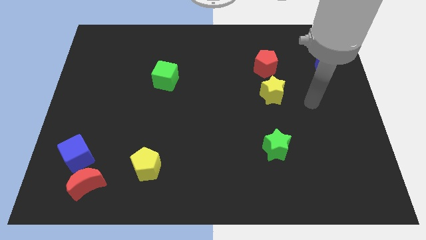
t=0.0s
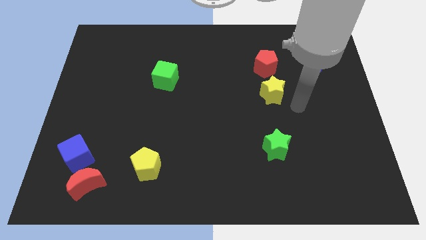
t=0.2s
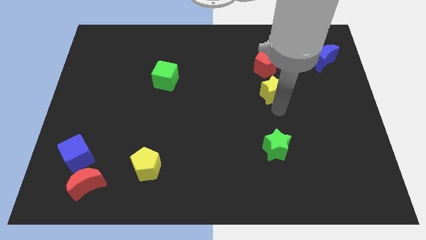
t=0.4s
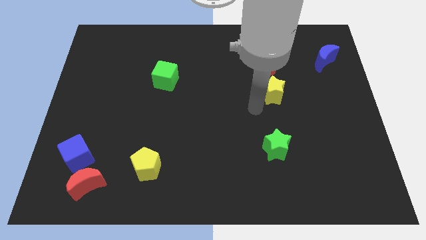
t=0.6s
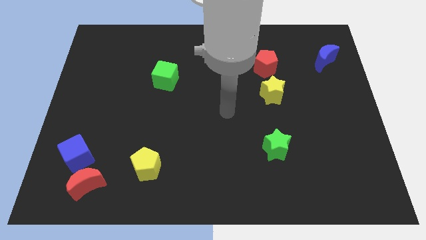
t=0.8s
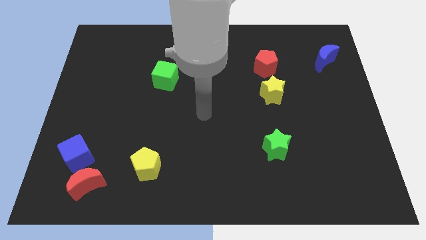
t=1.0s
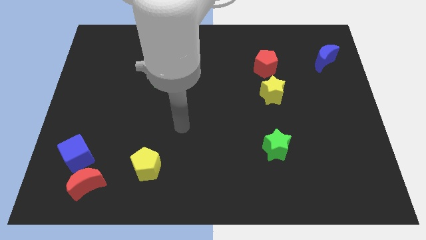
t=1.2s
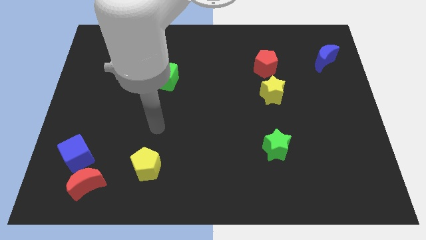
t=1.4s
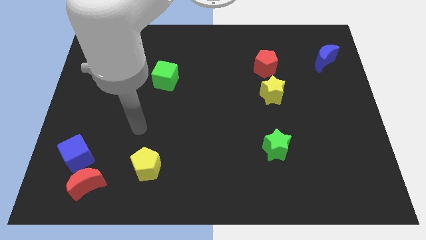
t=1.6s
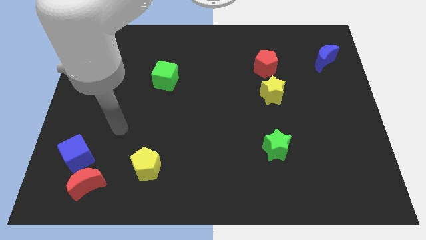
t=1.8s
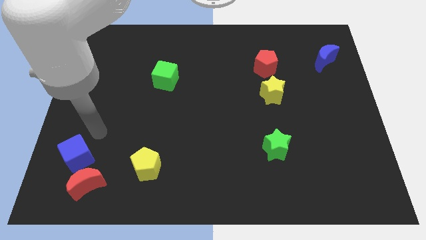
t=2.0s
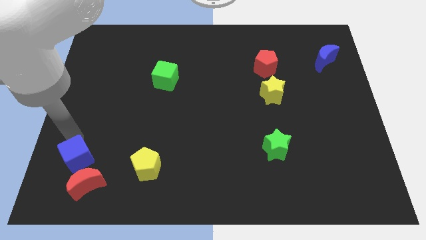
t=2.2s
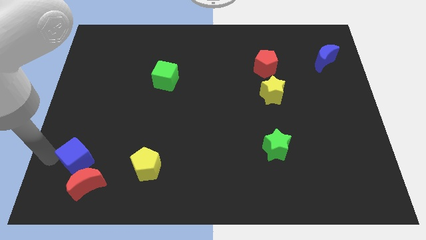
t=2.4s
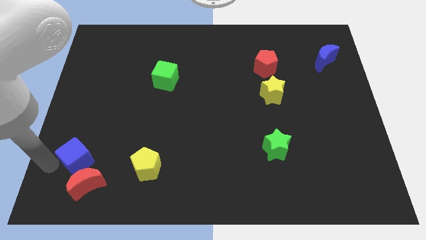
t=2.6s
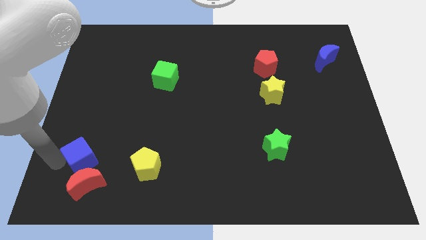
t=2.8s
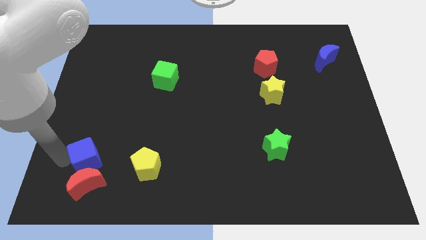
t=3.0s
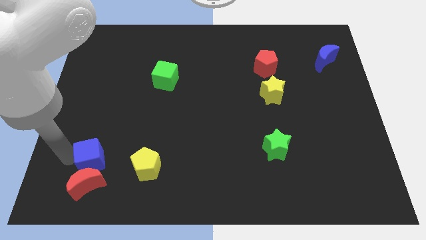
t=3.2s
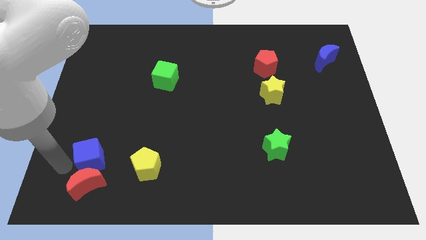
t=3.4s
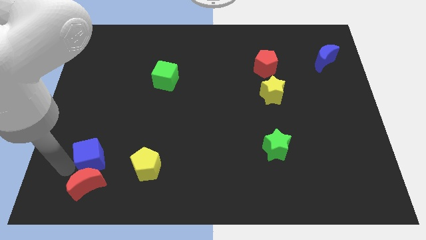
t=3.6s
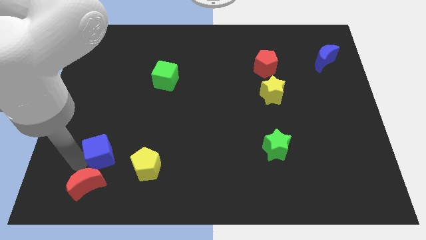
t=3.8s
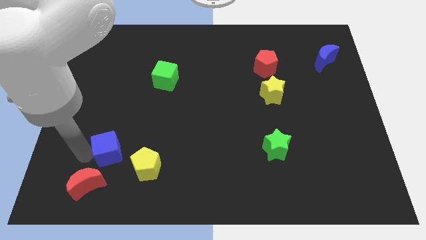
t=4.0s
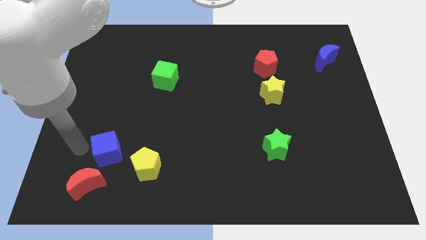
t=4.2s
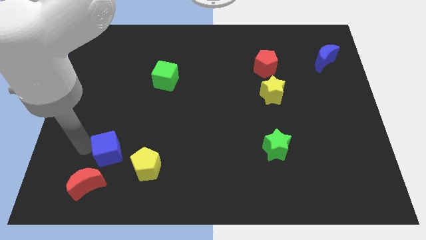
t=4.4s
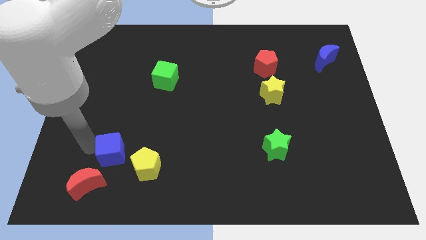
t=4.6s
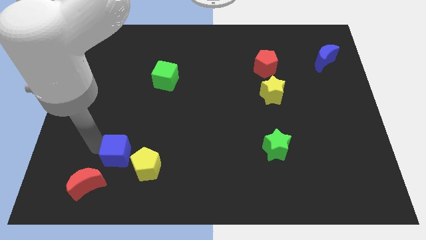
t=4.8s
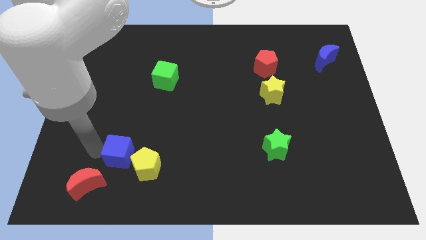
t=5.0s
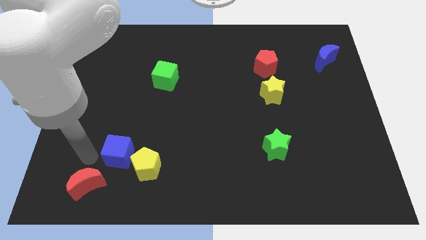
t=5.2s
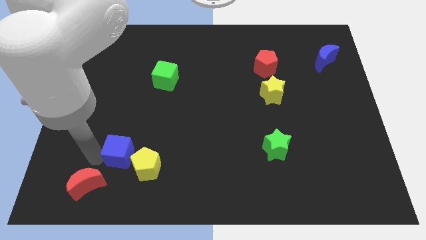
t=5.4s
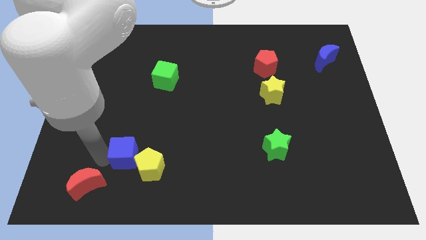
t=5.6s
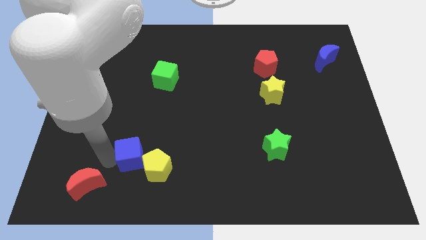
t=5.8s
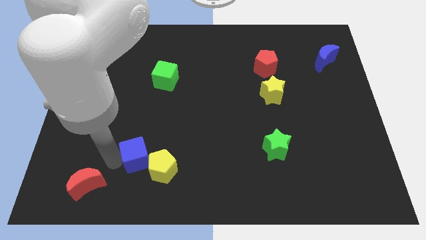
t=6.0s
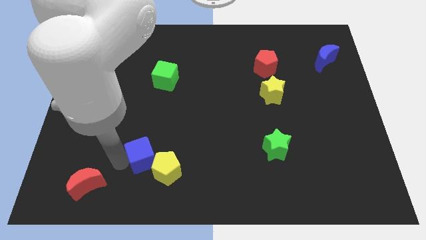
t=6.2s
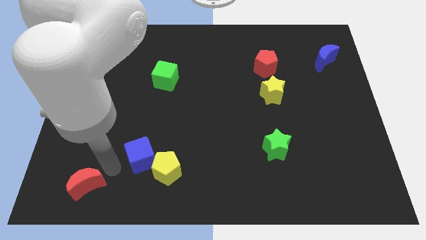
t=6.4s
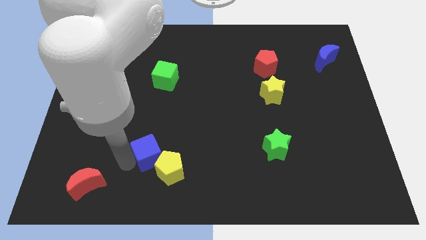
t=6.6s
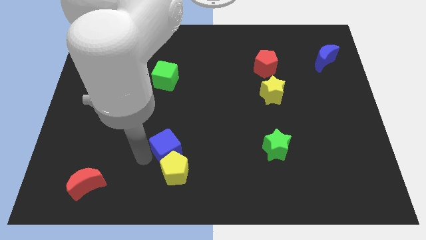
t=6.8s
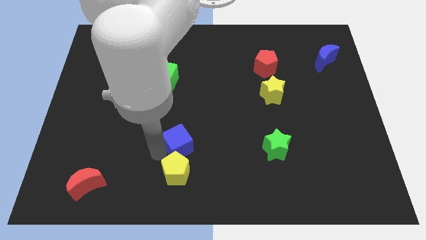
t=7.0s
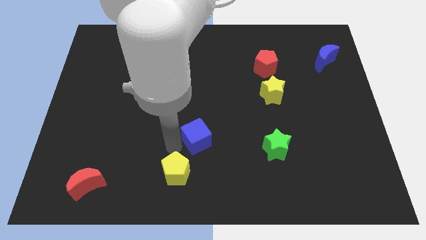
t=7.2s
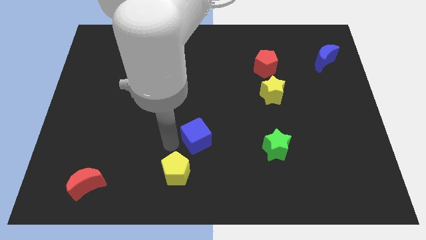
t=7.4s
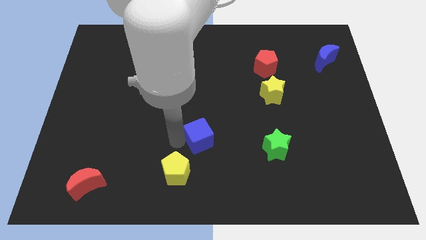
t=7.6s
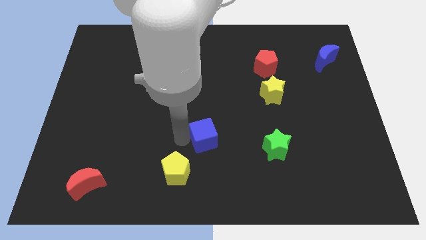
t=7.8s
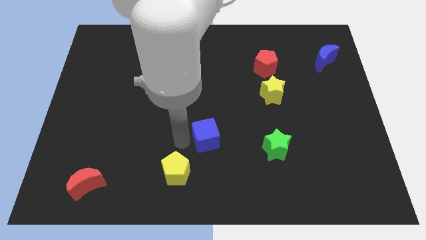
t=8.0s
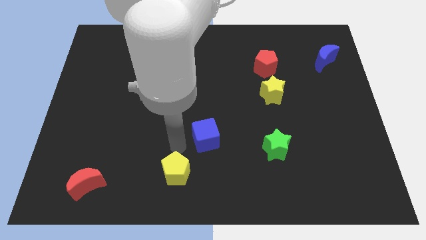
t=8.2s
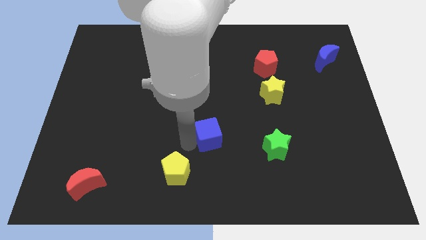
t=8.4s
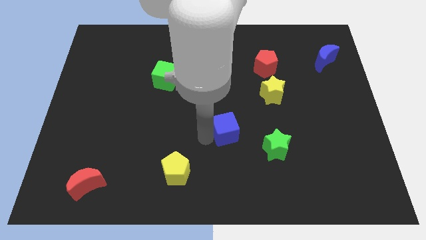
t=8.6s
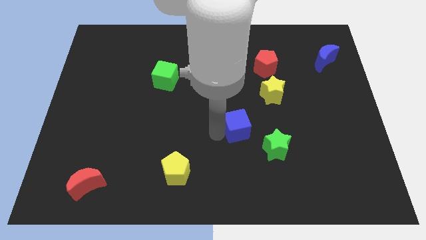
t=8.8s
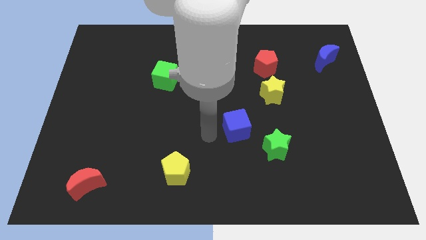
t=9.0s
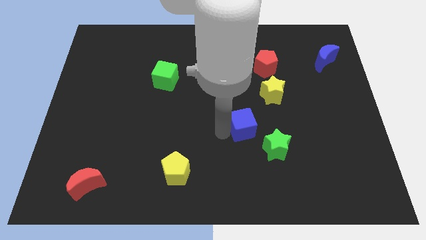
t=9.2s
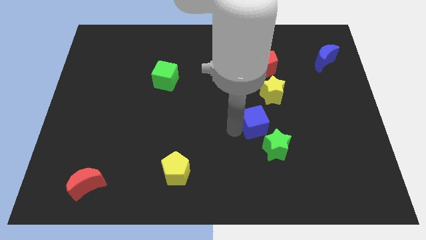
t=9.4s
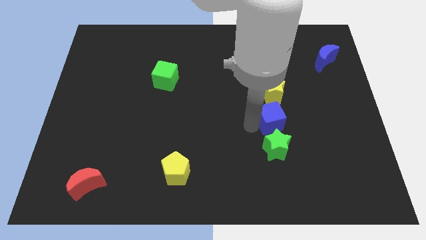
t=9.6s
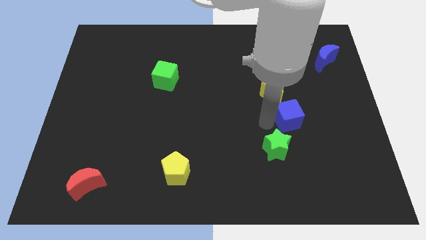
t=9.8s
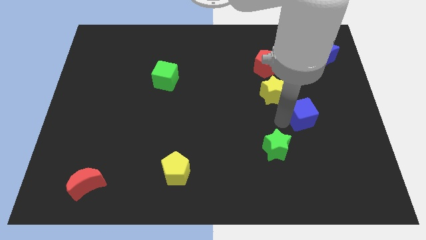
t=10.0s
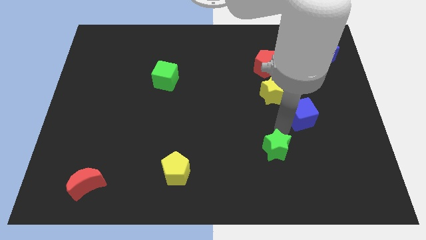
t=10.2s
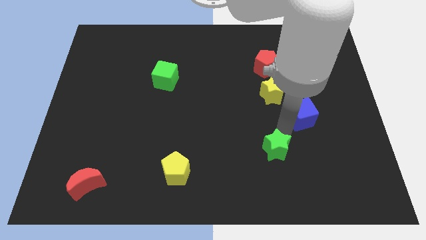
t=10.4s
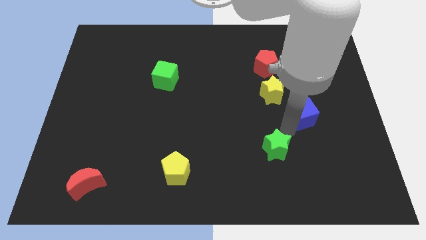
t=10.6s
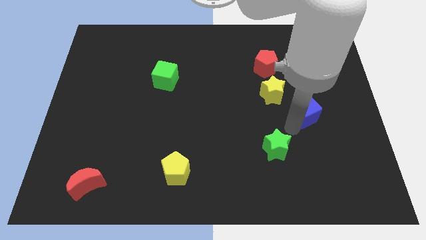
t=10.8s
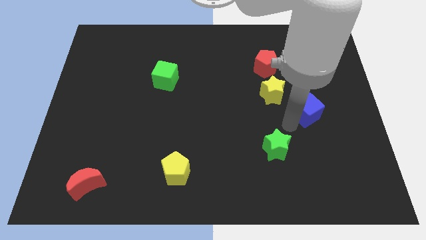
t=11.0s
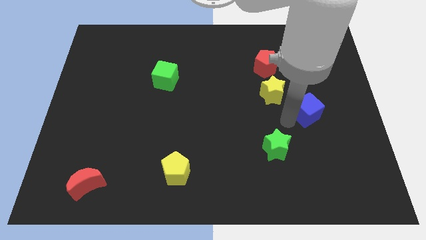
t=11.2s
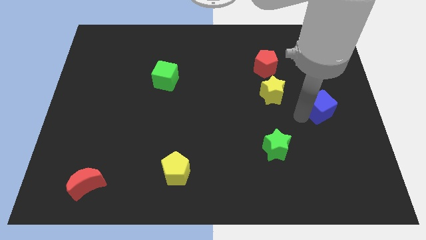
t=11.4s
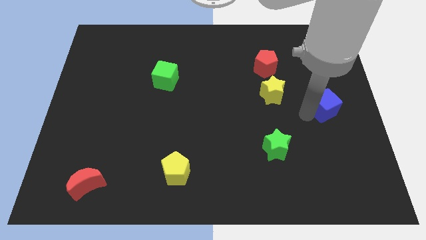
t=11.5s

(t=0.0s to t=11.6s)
move the blue cube to the right side

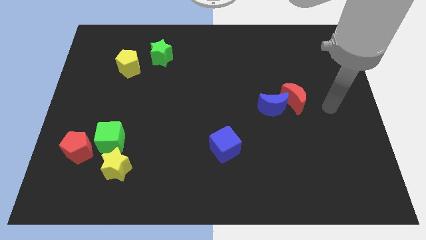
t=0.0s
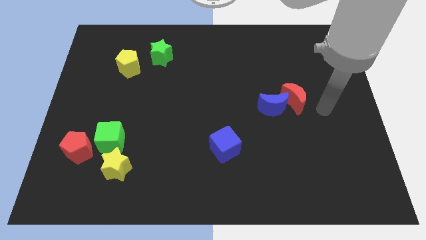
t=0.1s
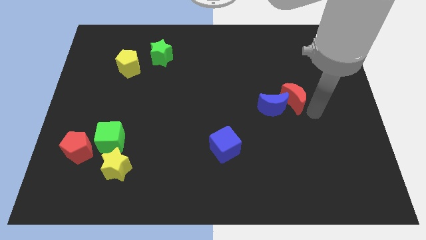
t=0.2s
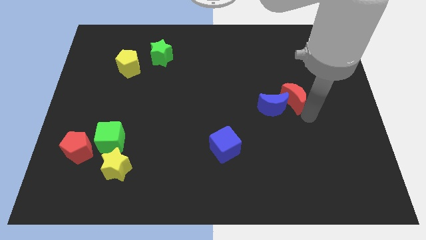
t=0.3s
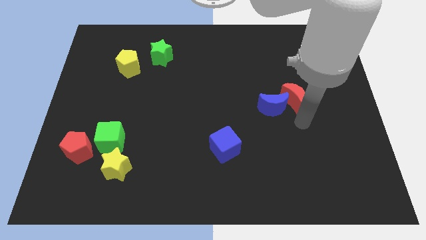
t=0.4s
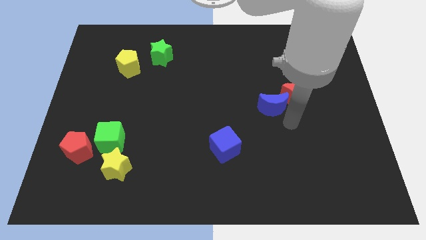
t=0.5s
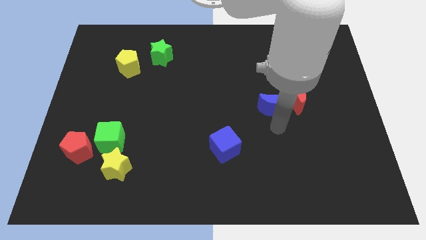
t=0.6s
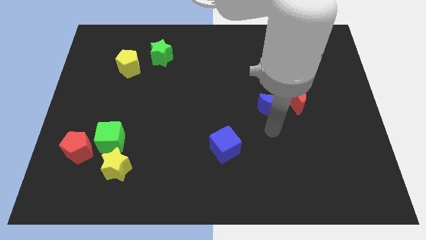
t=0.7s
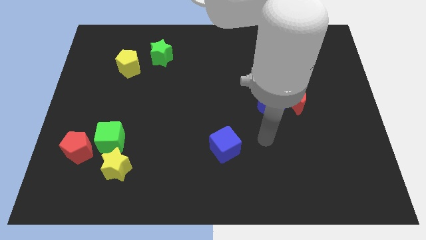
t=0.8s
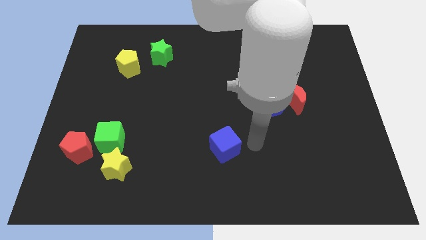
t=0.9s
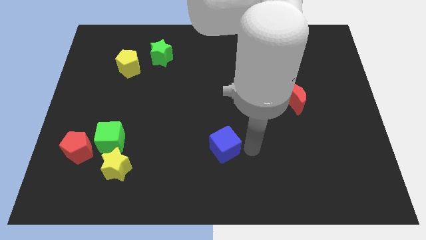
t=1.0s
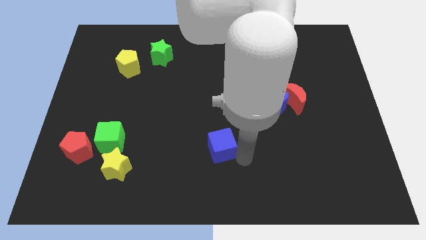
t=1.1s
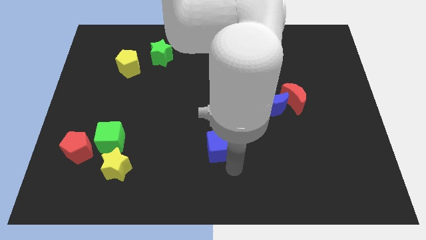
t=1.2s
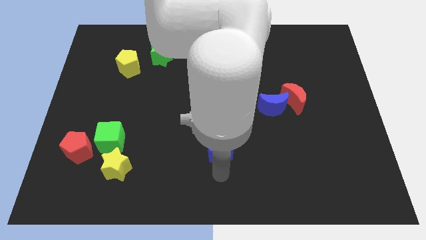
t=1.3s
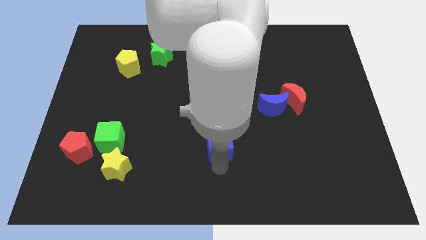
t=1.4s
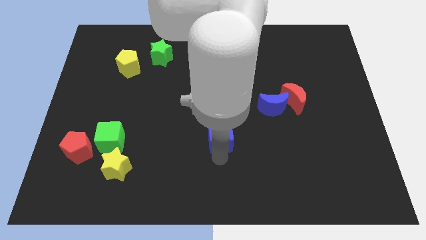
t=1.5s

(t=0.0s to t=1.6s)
push the blue cube to the center of the board
